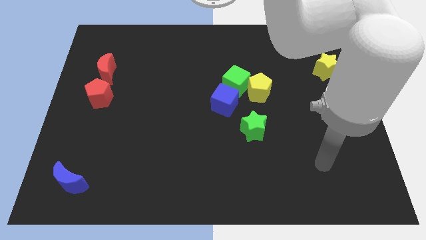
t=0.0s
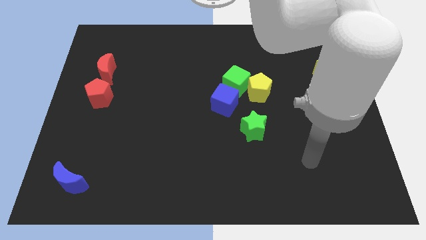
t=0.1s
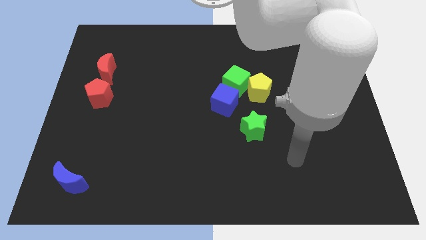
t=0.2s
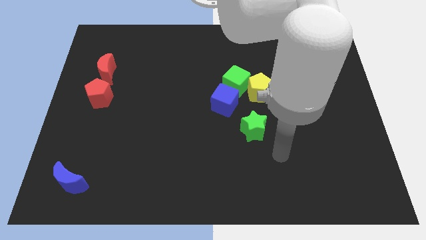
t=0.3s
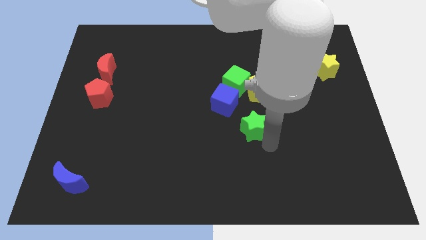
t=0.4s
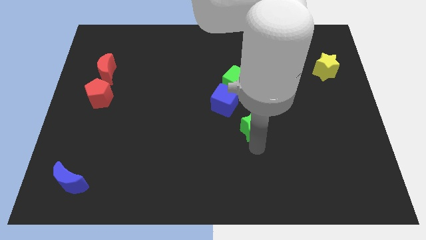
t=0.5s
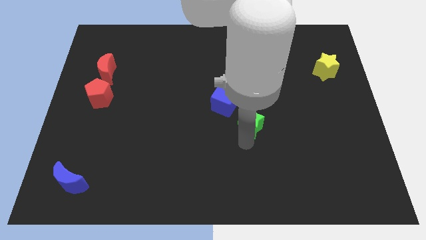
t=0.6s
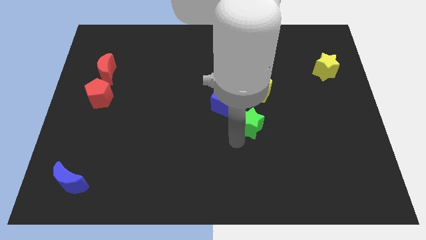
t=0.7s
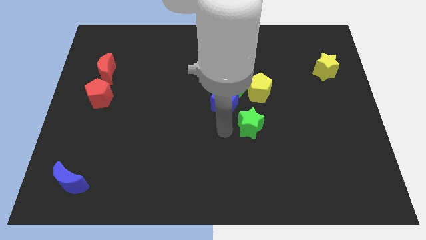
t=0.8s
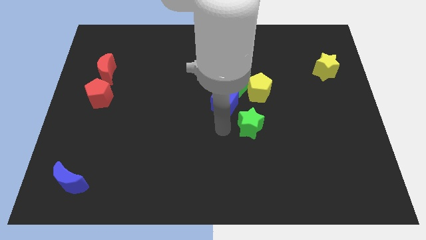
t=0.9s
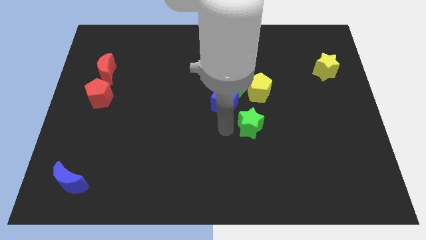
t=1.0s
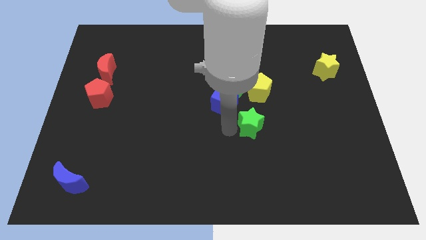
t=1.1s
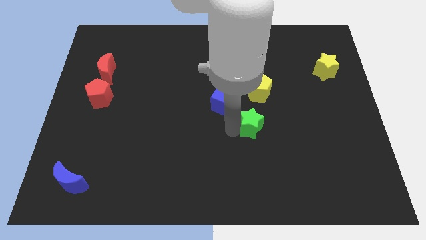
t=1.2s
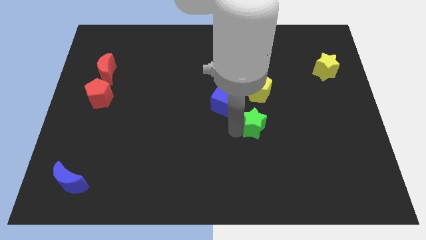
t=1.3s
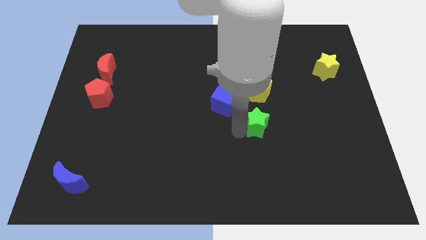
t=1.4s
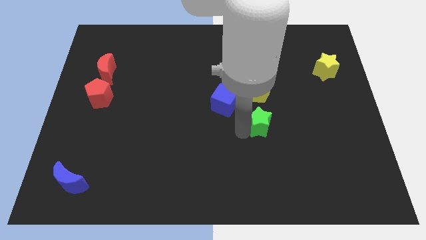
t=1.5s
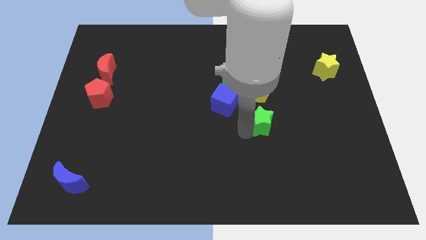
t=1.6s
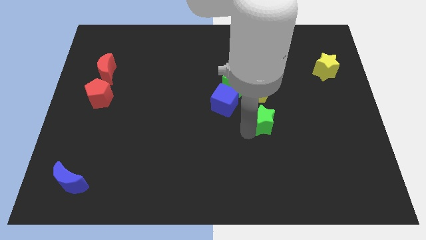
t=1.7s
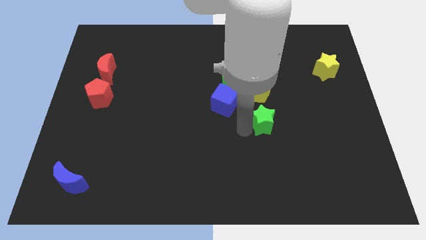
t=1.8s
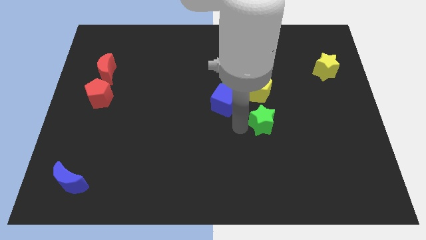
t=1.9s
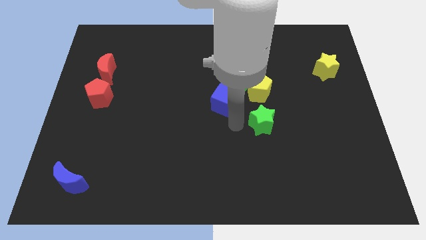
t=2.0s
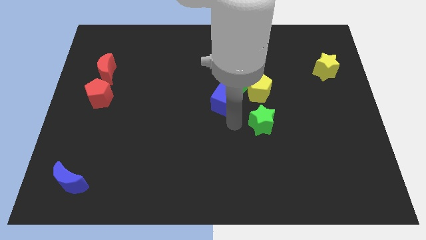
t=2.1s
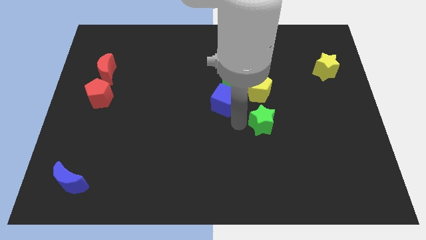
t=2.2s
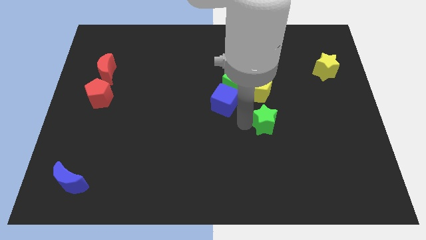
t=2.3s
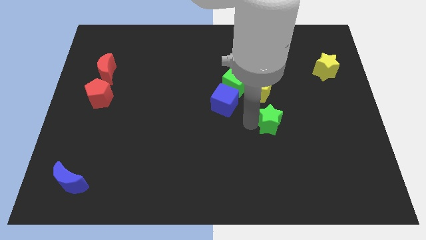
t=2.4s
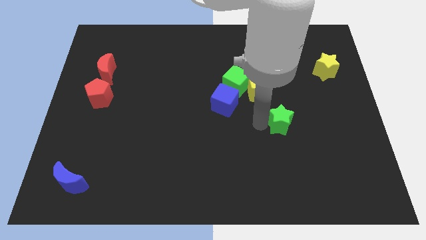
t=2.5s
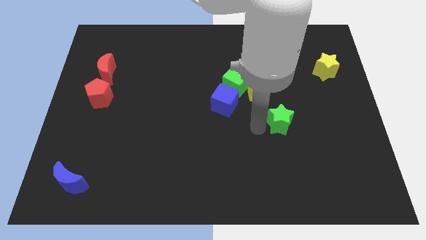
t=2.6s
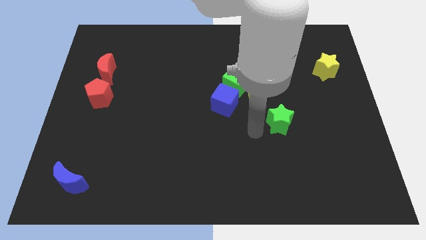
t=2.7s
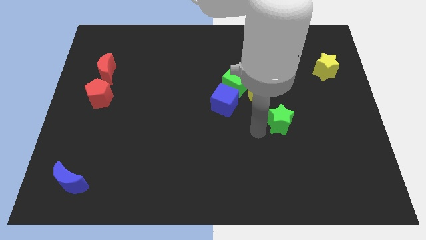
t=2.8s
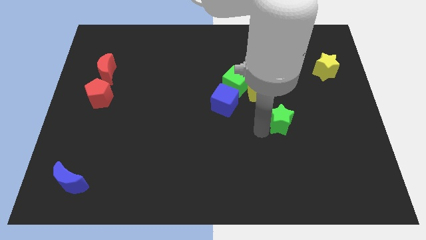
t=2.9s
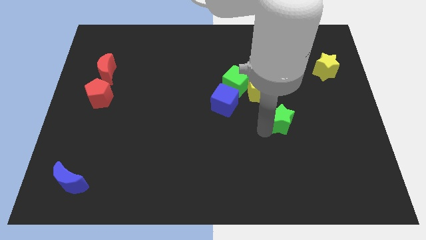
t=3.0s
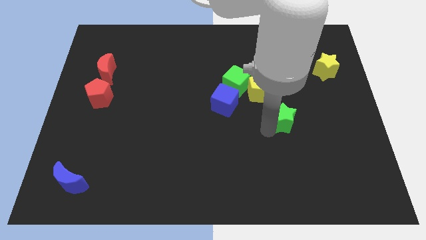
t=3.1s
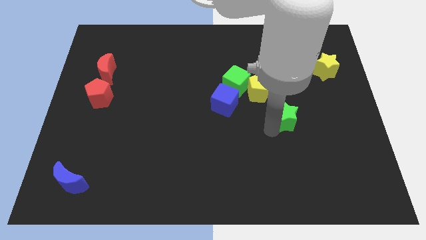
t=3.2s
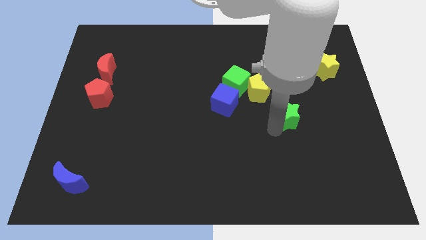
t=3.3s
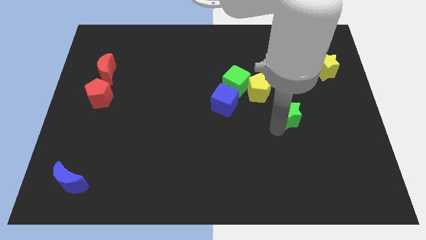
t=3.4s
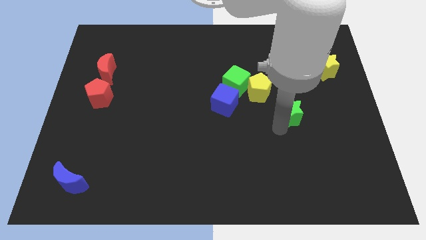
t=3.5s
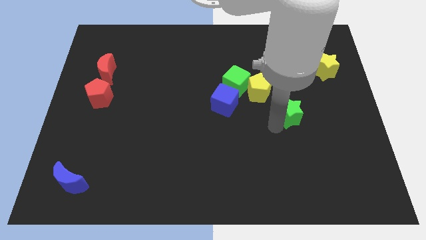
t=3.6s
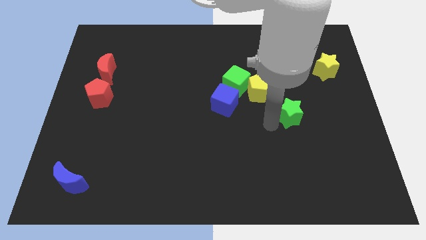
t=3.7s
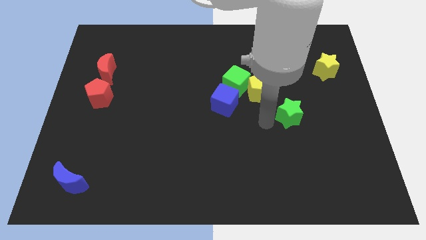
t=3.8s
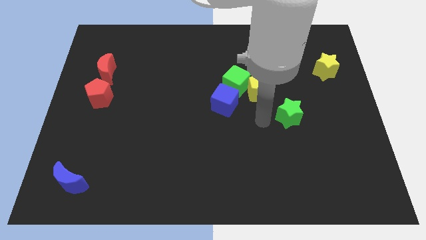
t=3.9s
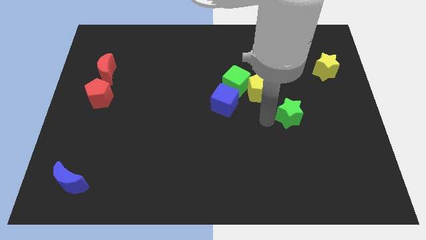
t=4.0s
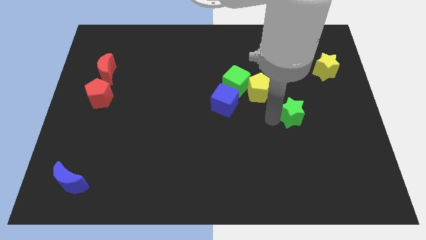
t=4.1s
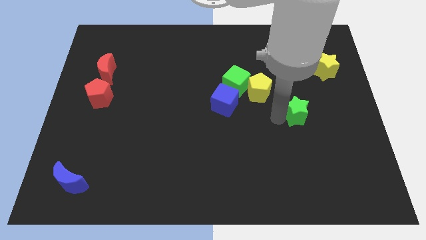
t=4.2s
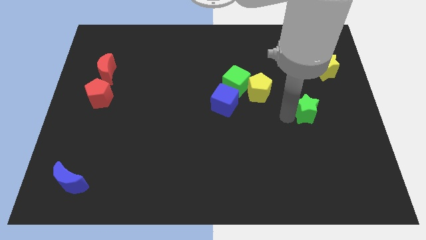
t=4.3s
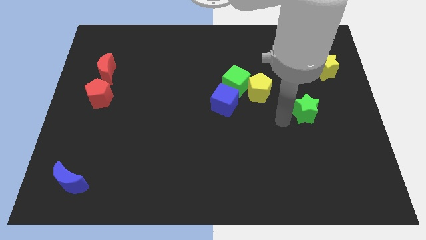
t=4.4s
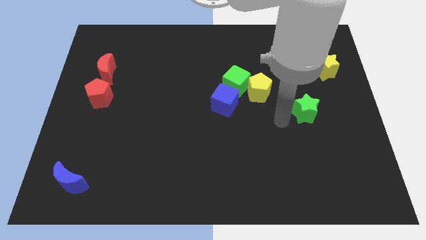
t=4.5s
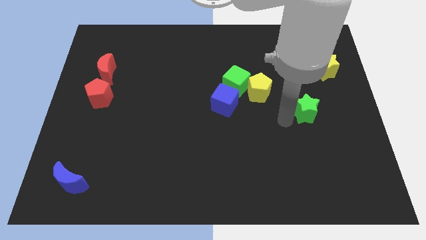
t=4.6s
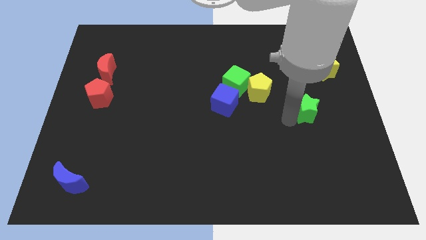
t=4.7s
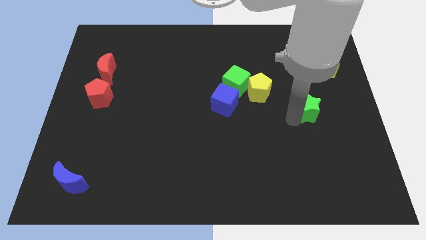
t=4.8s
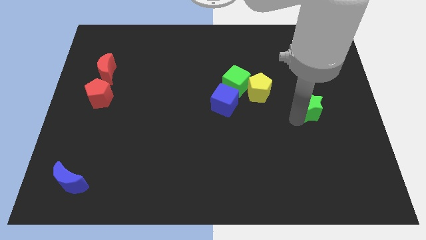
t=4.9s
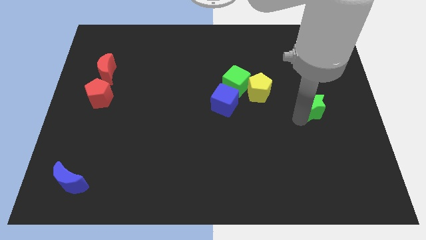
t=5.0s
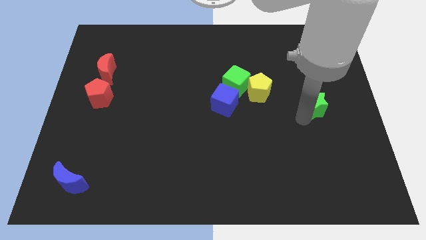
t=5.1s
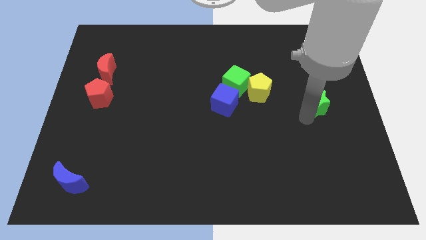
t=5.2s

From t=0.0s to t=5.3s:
push the green star to the bottom of the yellow star
